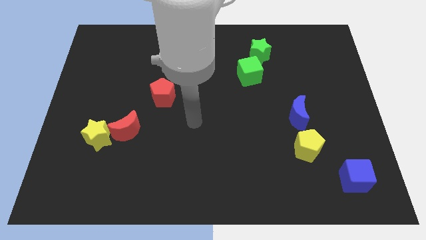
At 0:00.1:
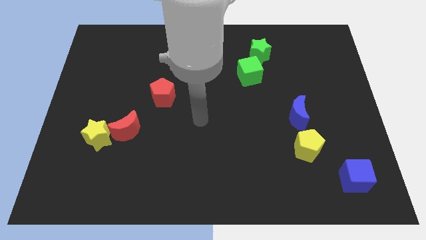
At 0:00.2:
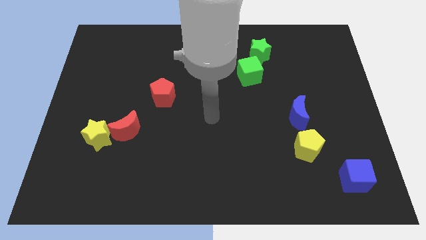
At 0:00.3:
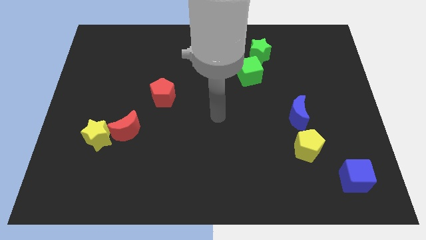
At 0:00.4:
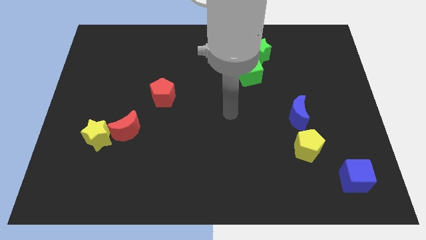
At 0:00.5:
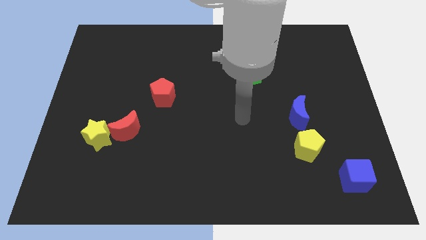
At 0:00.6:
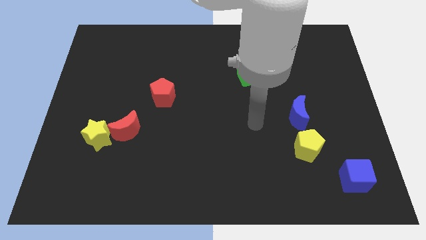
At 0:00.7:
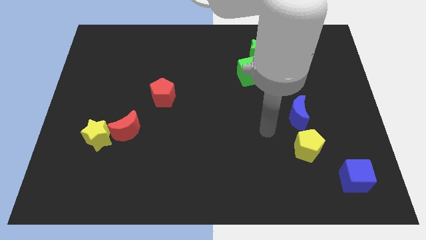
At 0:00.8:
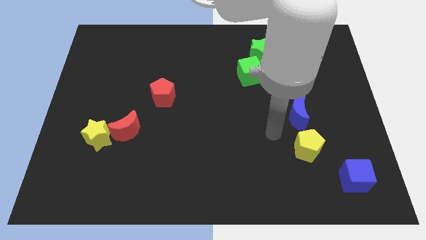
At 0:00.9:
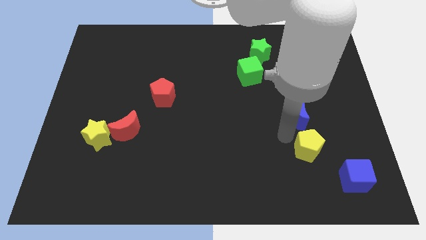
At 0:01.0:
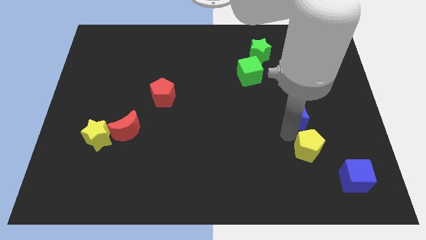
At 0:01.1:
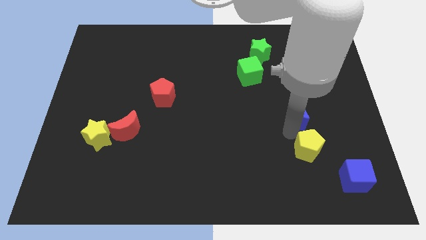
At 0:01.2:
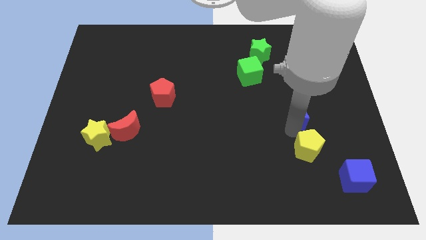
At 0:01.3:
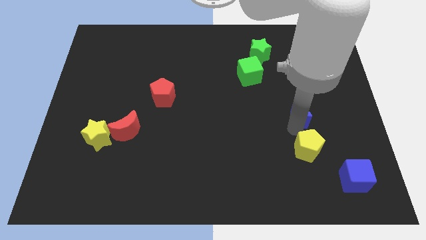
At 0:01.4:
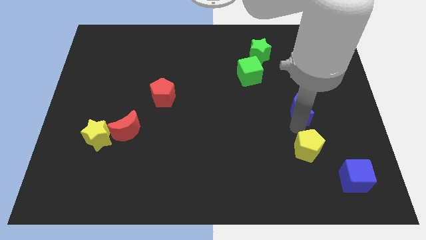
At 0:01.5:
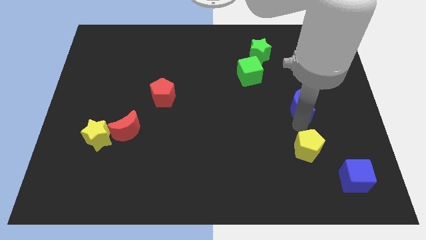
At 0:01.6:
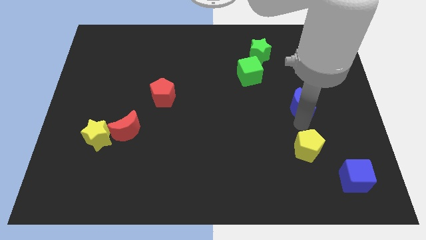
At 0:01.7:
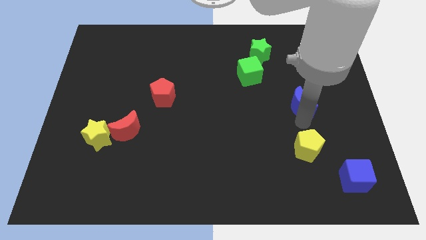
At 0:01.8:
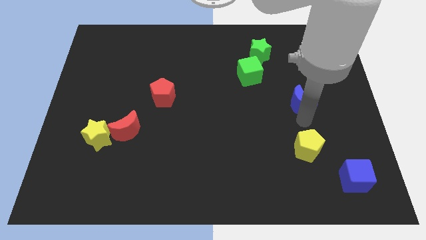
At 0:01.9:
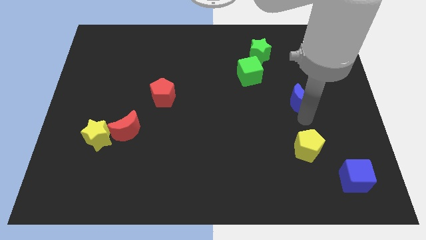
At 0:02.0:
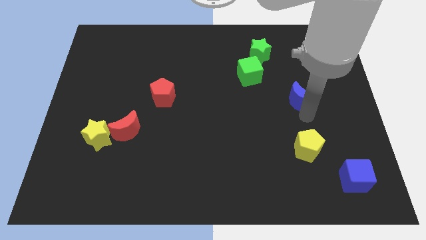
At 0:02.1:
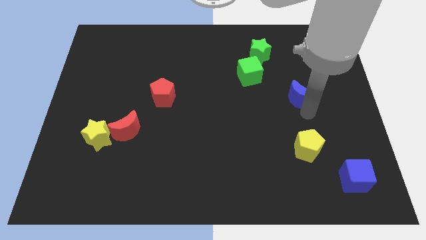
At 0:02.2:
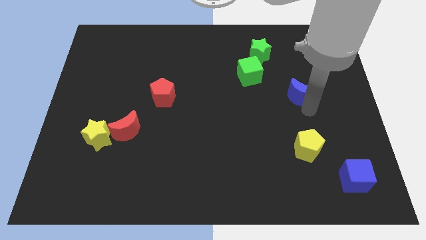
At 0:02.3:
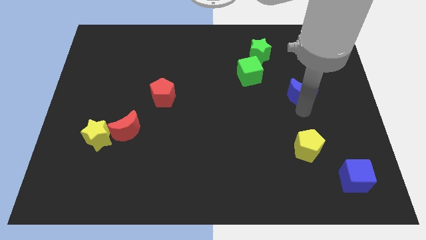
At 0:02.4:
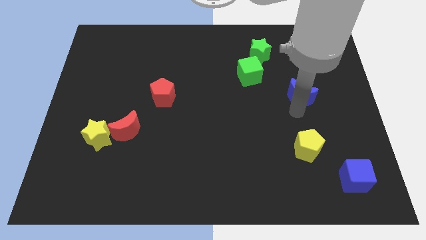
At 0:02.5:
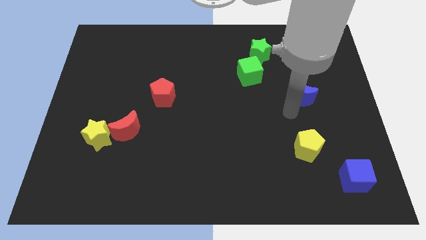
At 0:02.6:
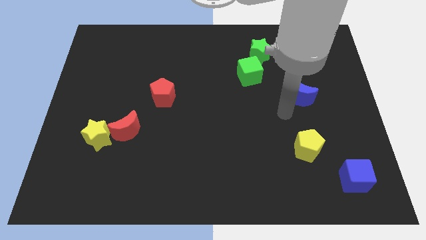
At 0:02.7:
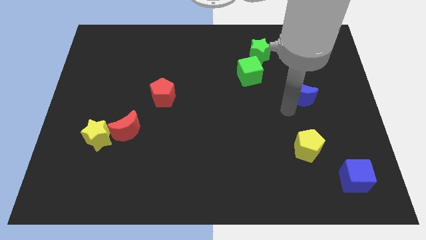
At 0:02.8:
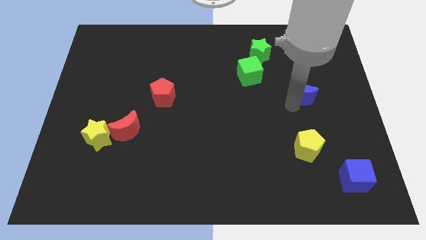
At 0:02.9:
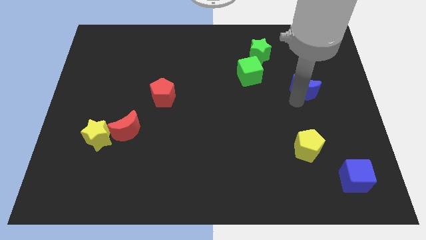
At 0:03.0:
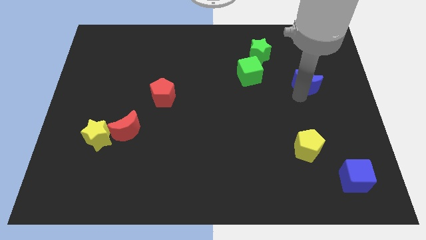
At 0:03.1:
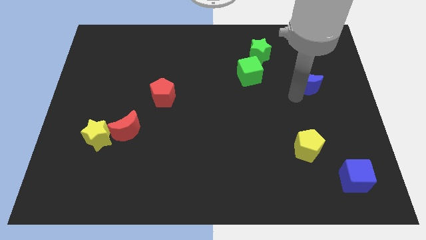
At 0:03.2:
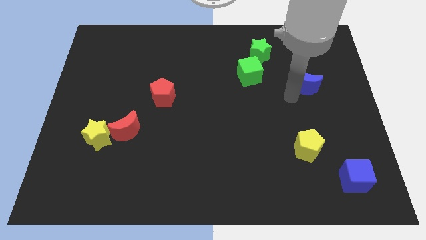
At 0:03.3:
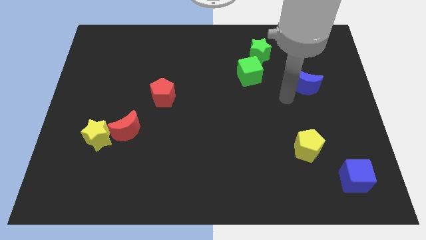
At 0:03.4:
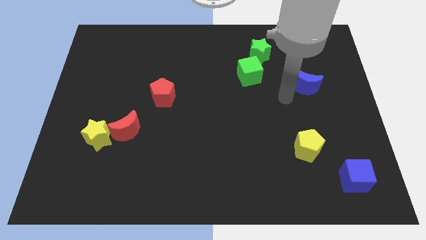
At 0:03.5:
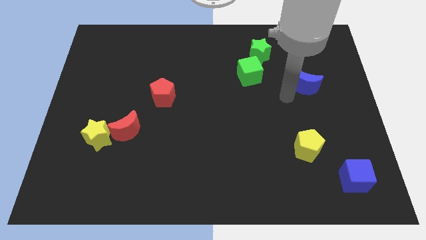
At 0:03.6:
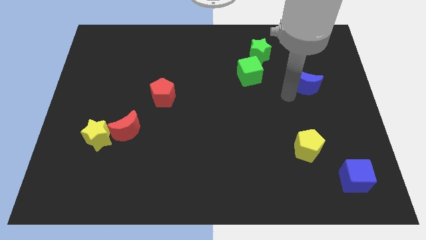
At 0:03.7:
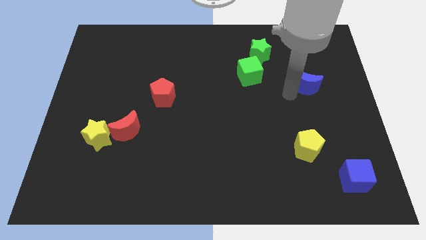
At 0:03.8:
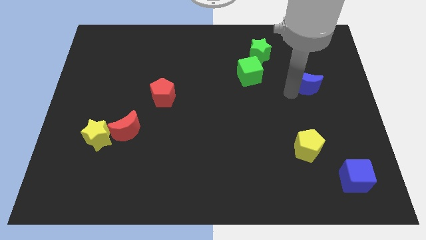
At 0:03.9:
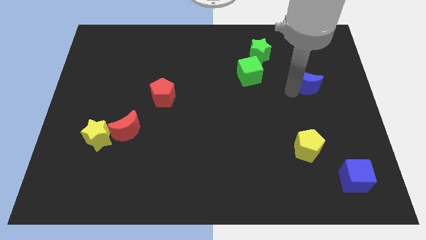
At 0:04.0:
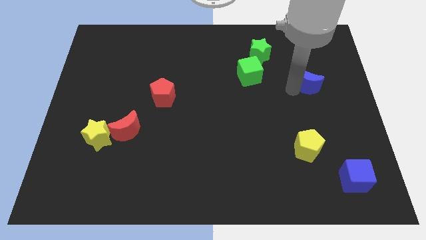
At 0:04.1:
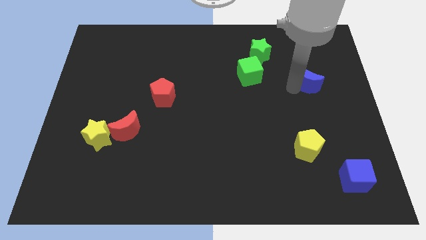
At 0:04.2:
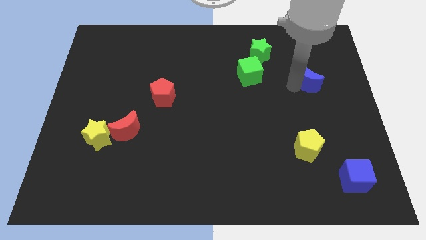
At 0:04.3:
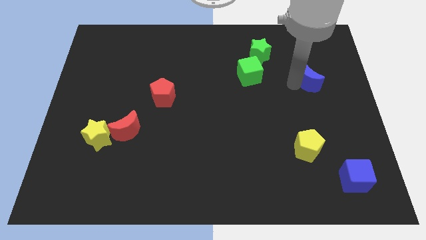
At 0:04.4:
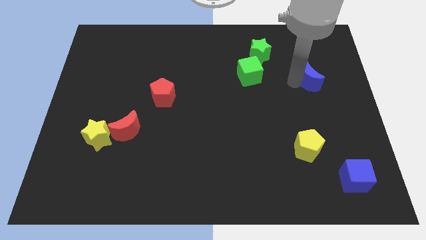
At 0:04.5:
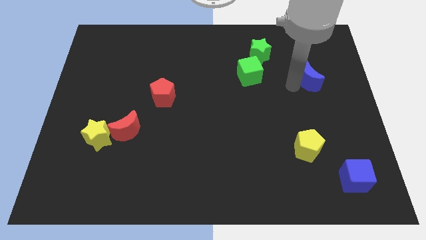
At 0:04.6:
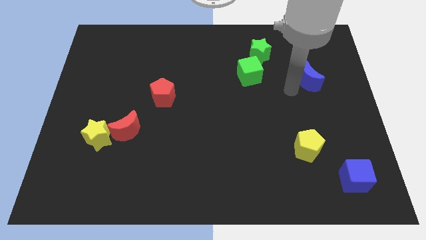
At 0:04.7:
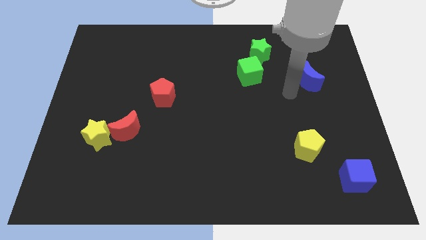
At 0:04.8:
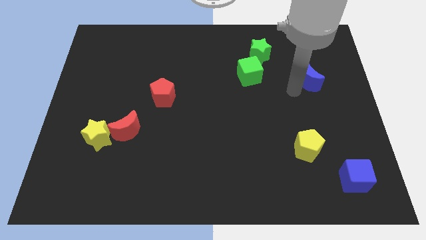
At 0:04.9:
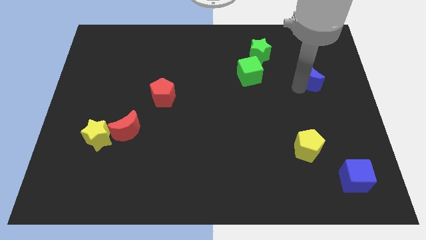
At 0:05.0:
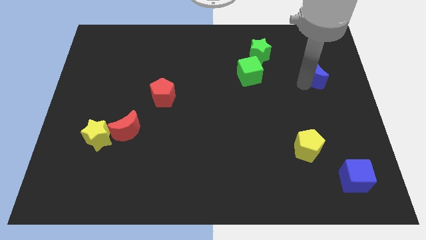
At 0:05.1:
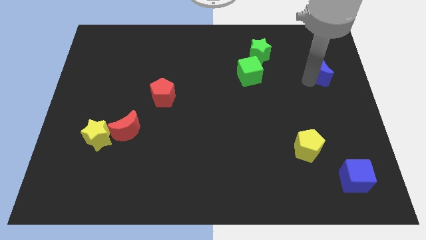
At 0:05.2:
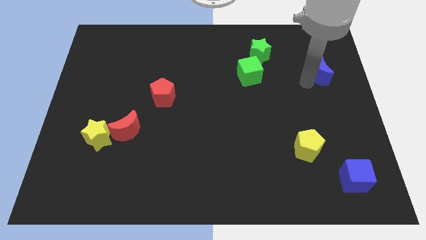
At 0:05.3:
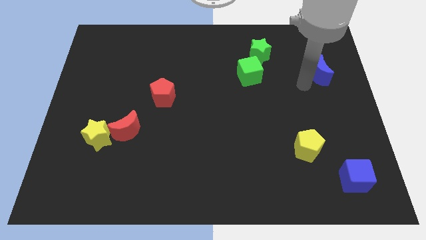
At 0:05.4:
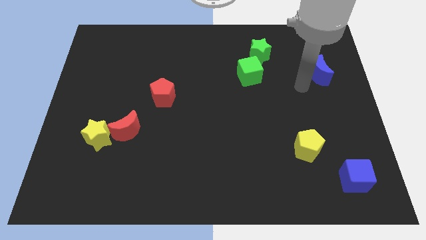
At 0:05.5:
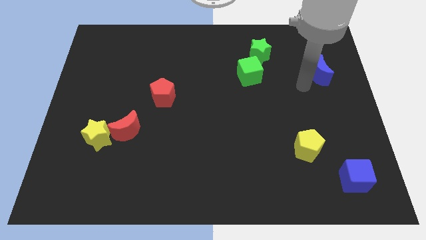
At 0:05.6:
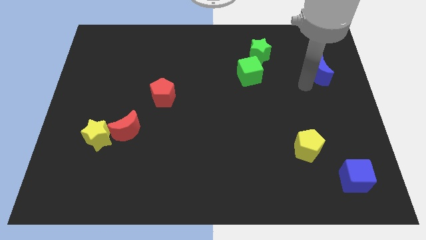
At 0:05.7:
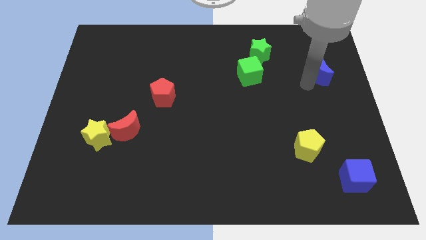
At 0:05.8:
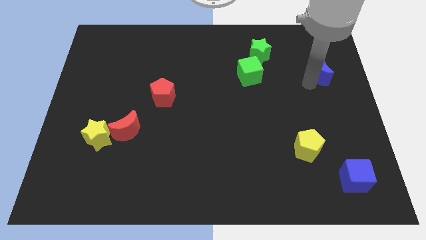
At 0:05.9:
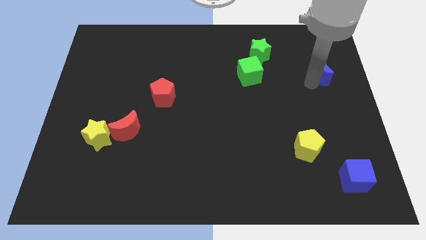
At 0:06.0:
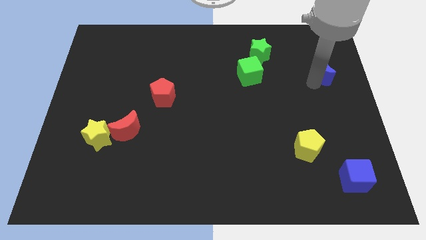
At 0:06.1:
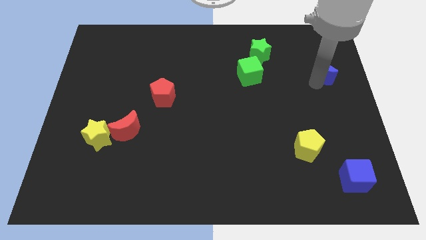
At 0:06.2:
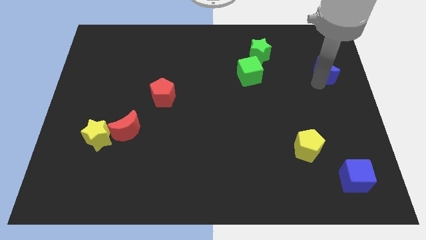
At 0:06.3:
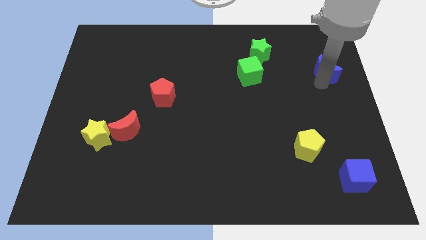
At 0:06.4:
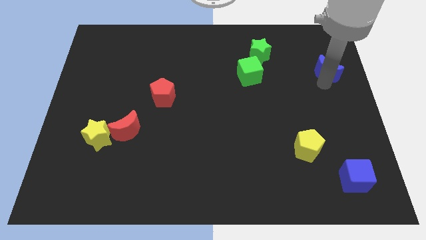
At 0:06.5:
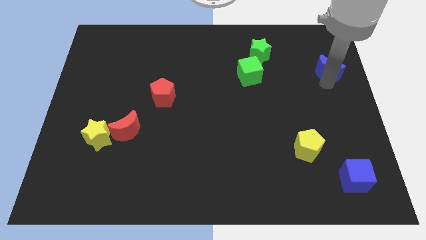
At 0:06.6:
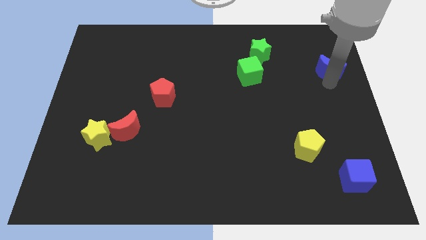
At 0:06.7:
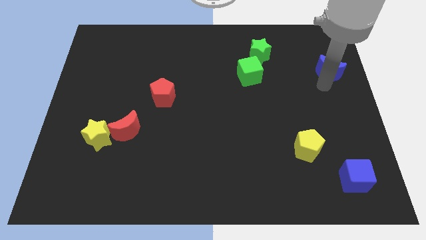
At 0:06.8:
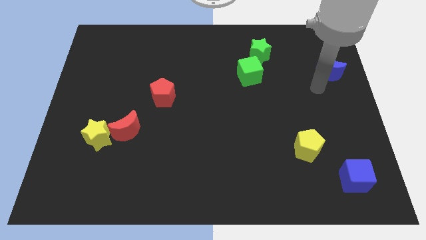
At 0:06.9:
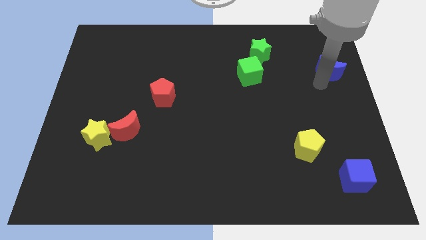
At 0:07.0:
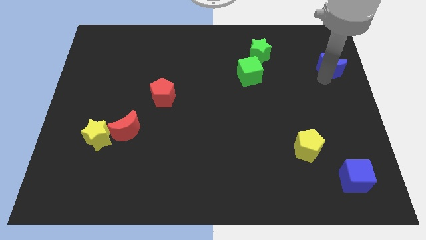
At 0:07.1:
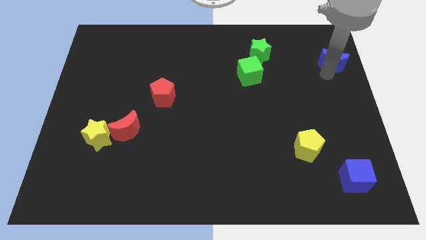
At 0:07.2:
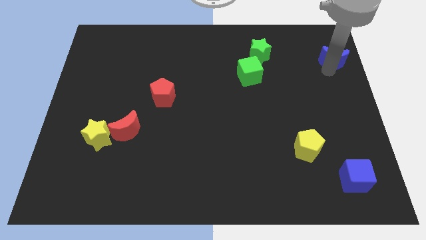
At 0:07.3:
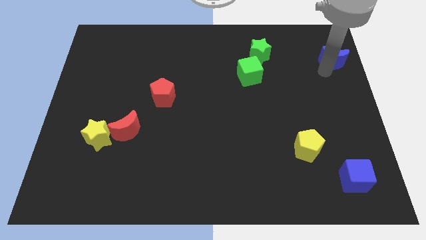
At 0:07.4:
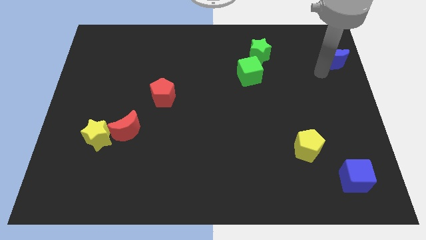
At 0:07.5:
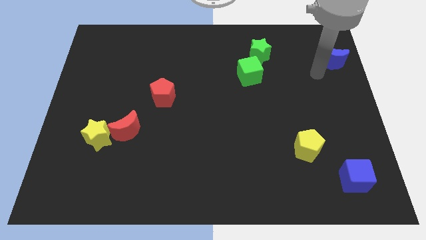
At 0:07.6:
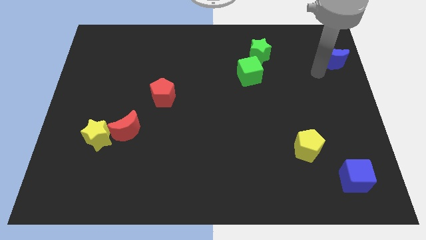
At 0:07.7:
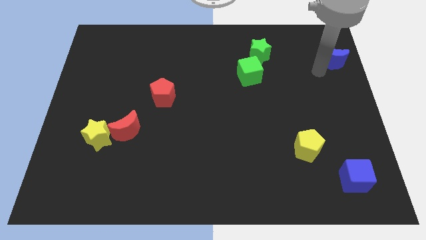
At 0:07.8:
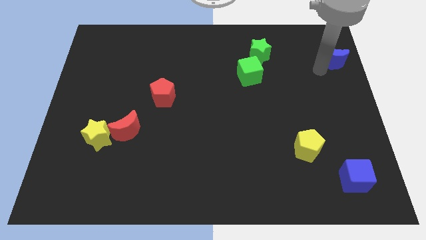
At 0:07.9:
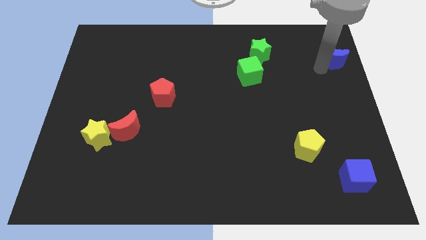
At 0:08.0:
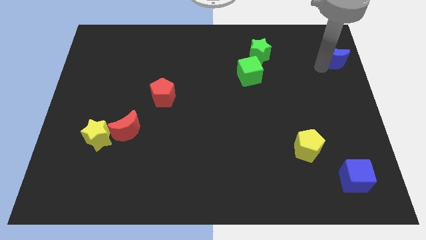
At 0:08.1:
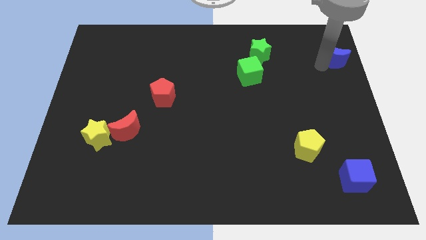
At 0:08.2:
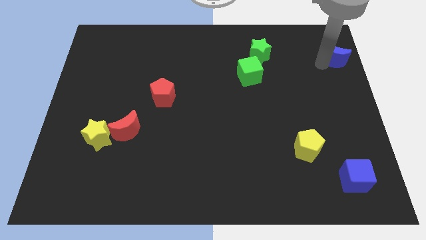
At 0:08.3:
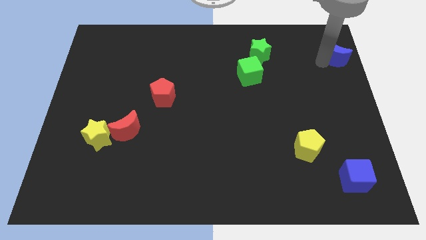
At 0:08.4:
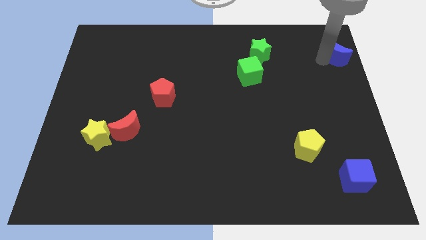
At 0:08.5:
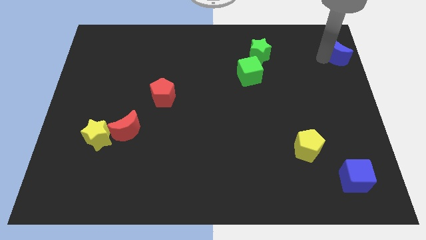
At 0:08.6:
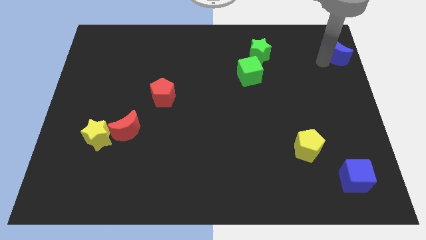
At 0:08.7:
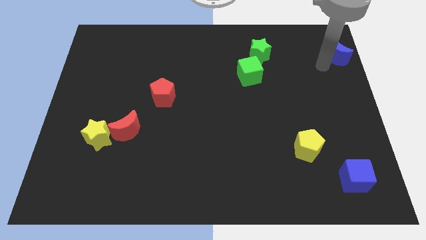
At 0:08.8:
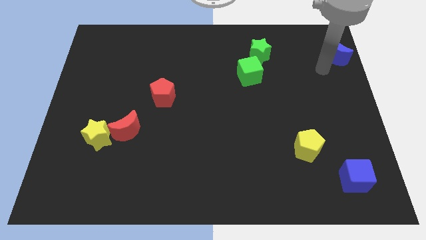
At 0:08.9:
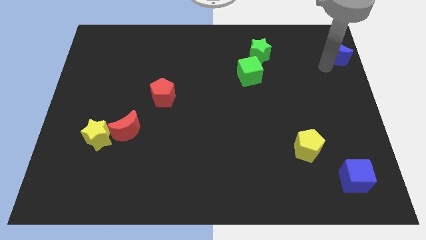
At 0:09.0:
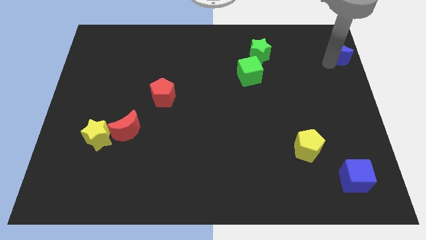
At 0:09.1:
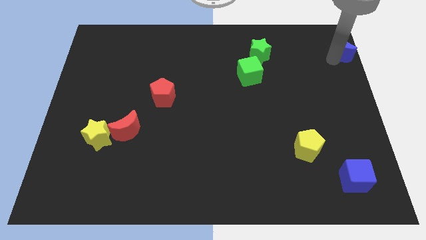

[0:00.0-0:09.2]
slide the blue moon to the top right corner
